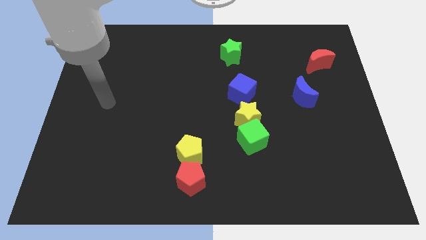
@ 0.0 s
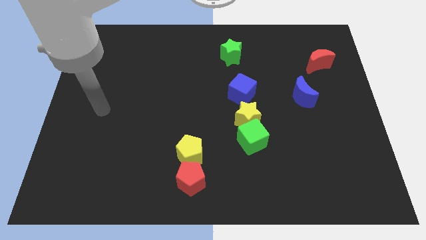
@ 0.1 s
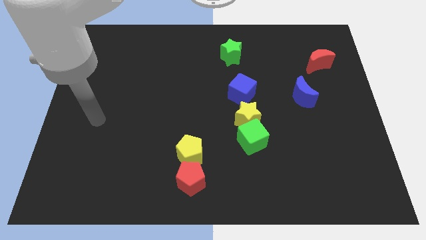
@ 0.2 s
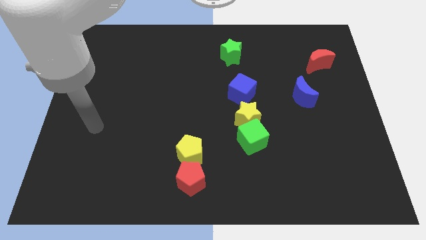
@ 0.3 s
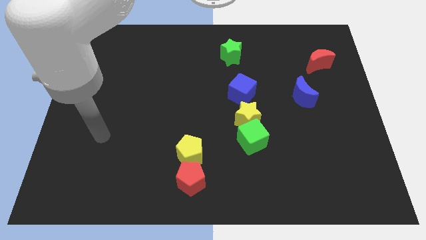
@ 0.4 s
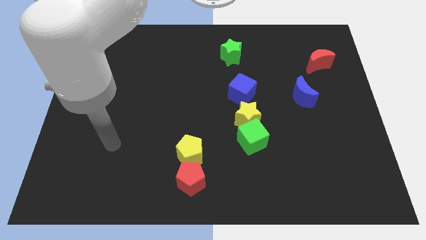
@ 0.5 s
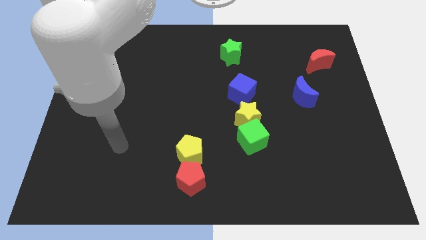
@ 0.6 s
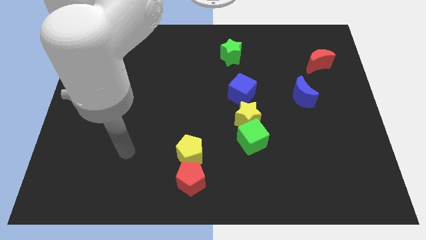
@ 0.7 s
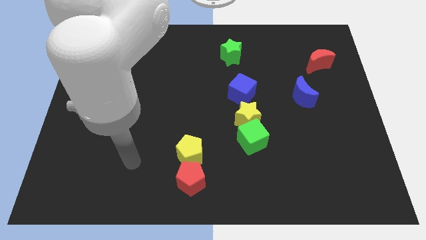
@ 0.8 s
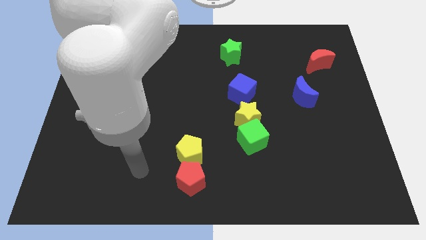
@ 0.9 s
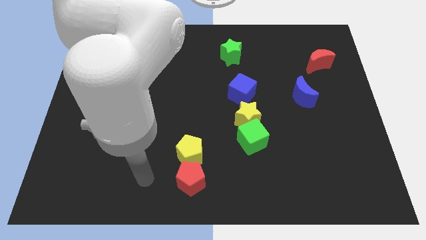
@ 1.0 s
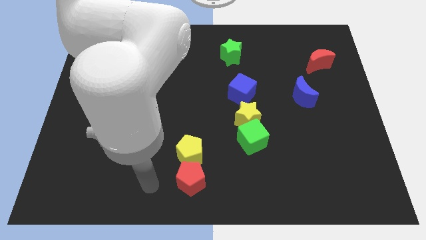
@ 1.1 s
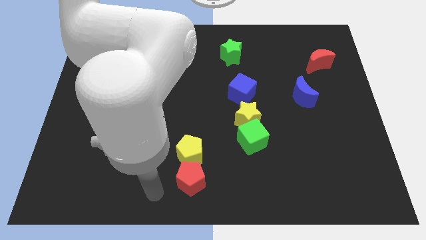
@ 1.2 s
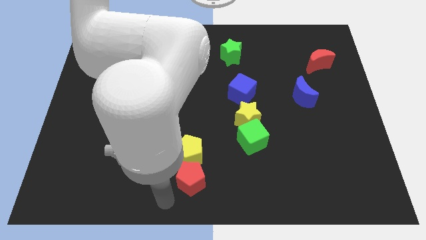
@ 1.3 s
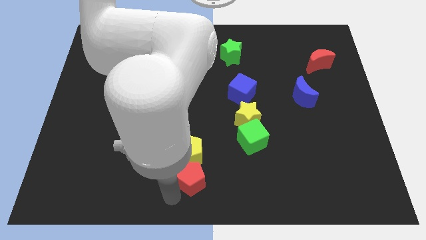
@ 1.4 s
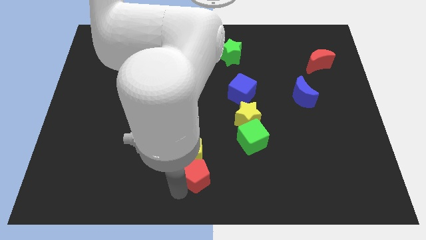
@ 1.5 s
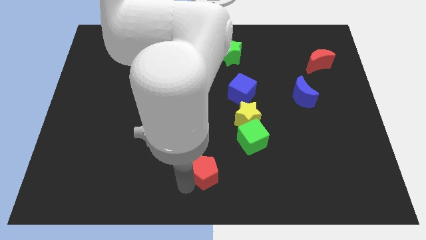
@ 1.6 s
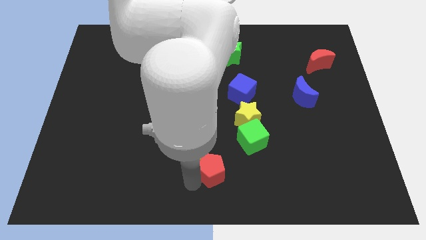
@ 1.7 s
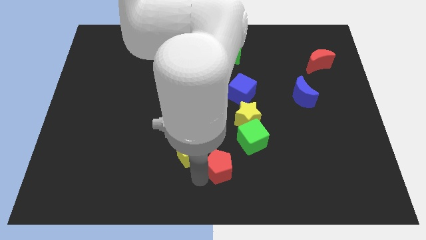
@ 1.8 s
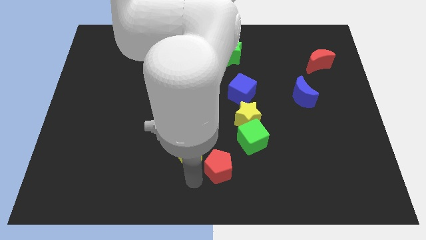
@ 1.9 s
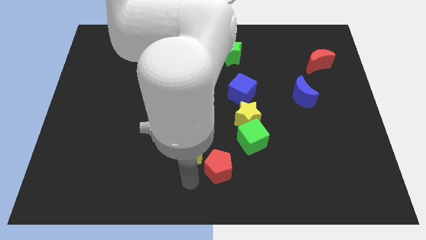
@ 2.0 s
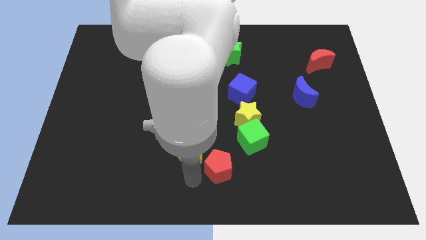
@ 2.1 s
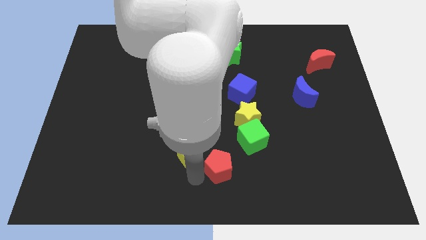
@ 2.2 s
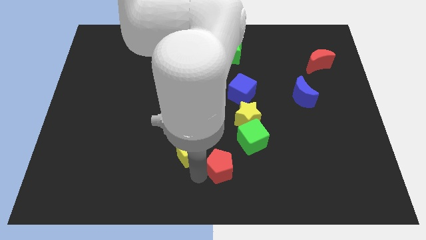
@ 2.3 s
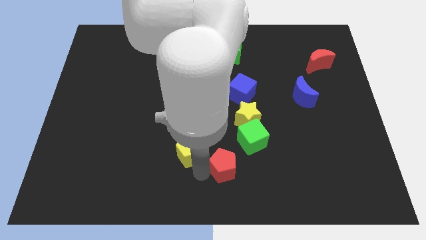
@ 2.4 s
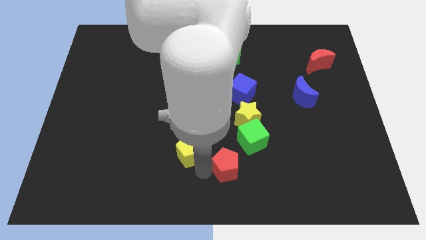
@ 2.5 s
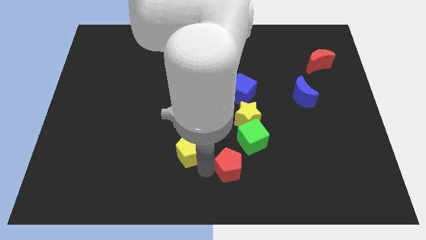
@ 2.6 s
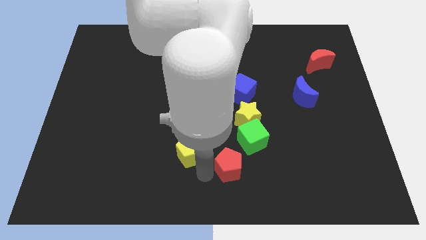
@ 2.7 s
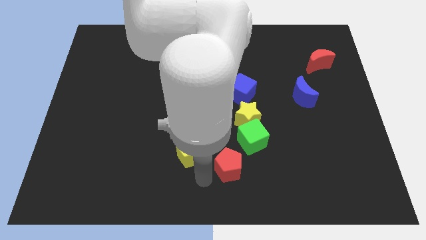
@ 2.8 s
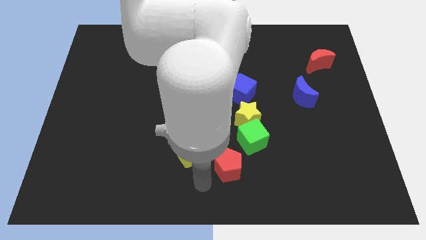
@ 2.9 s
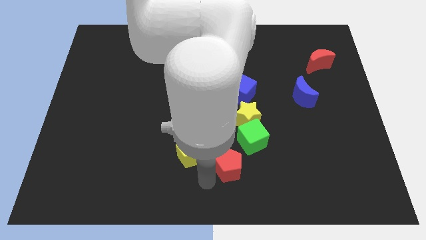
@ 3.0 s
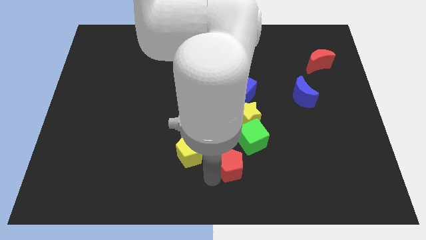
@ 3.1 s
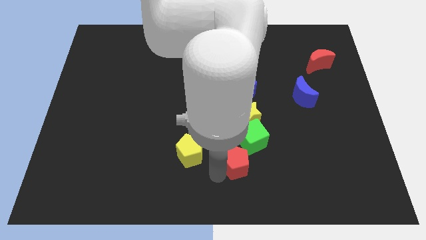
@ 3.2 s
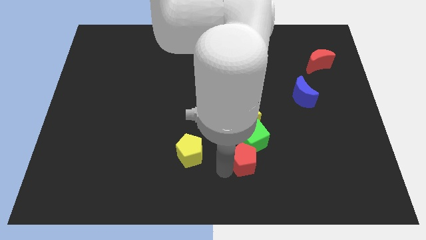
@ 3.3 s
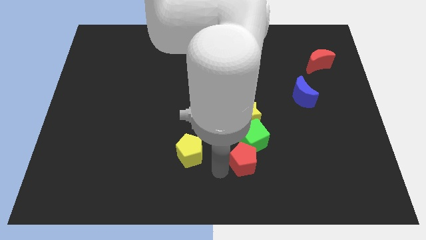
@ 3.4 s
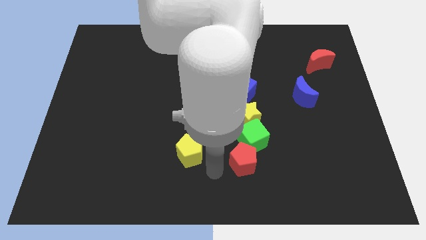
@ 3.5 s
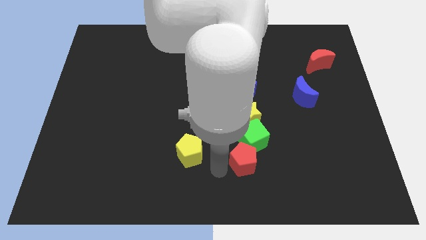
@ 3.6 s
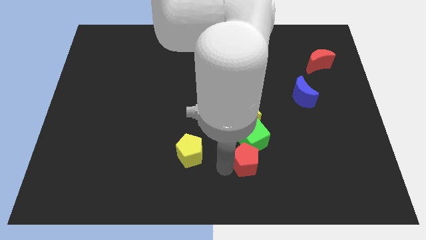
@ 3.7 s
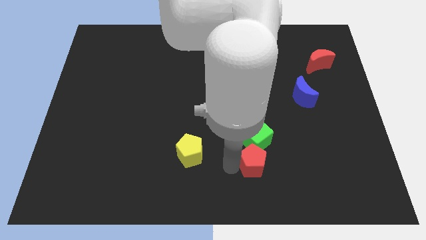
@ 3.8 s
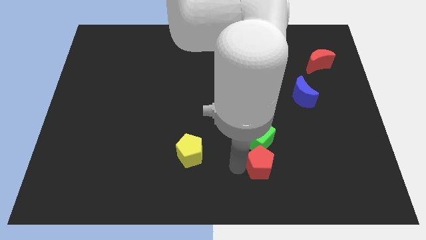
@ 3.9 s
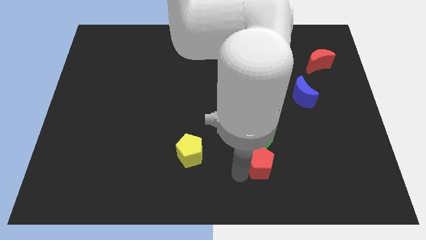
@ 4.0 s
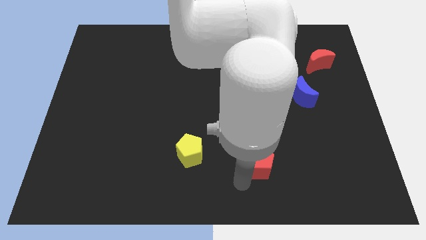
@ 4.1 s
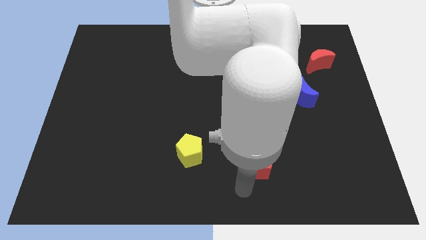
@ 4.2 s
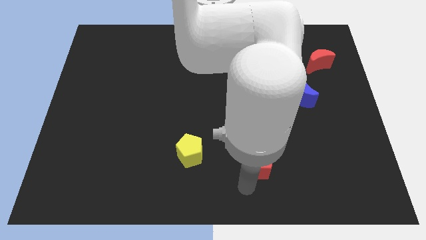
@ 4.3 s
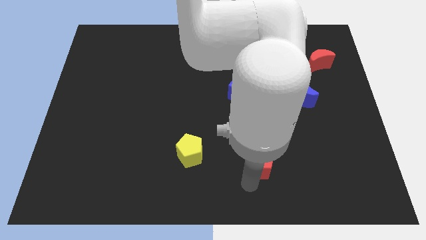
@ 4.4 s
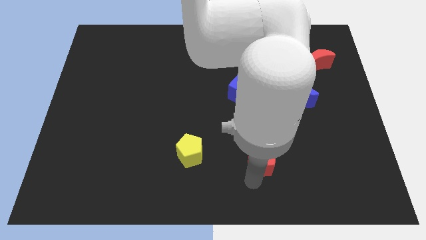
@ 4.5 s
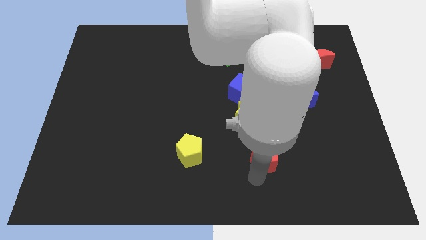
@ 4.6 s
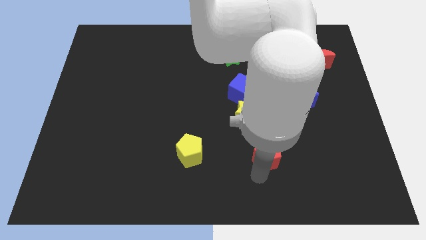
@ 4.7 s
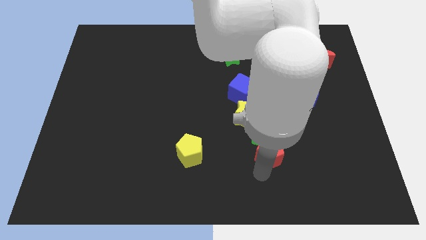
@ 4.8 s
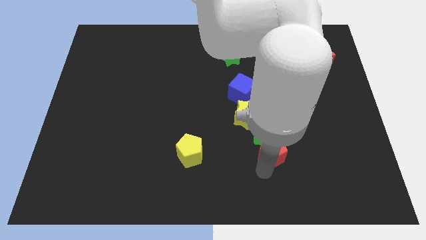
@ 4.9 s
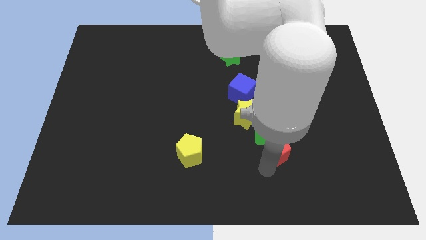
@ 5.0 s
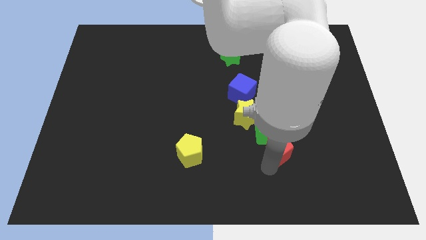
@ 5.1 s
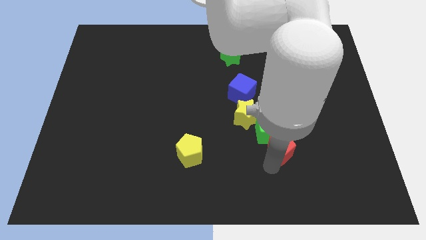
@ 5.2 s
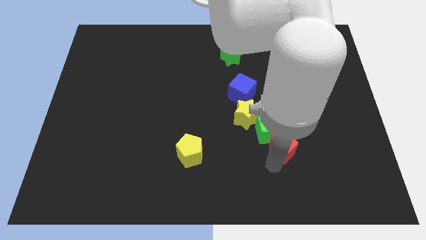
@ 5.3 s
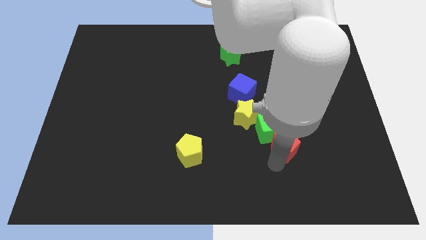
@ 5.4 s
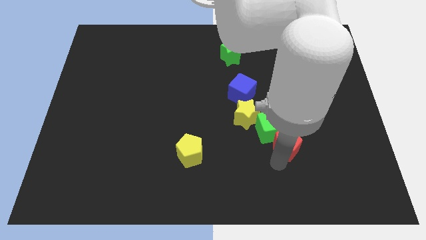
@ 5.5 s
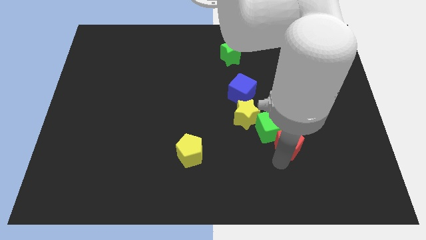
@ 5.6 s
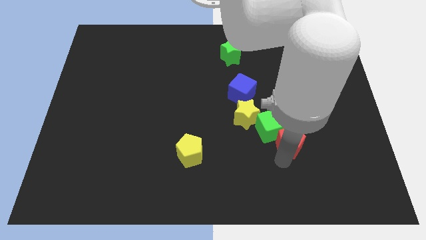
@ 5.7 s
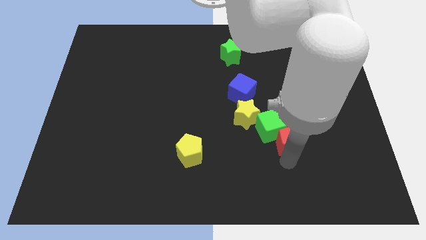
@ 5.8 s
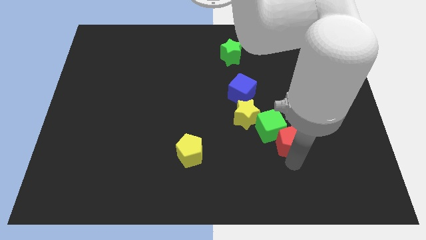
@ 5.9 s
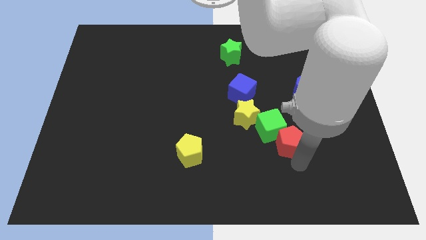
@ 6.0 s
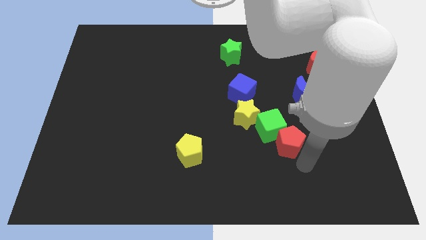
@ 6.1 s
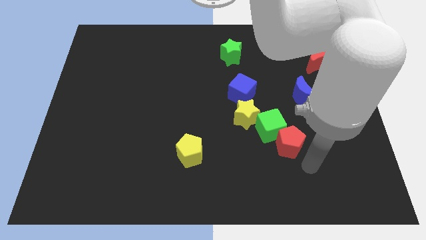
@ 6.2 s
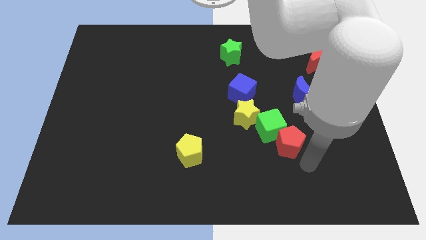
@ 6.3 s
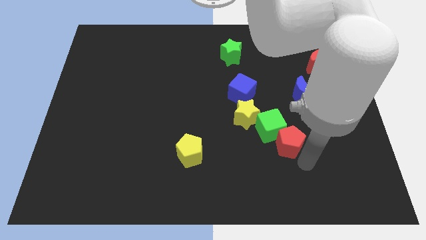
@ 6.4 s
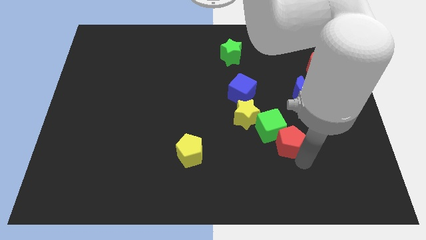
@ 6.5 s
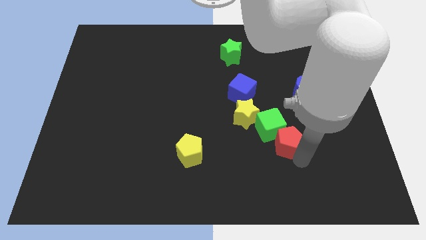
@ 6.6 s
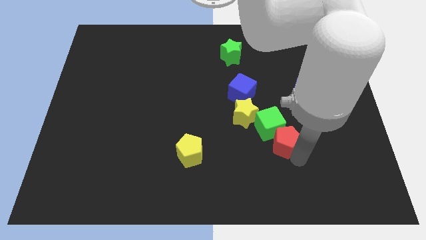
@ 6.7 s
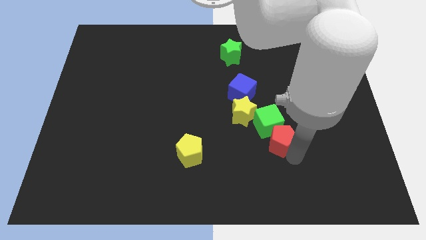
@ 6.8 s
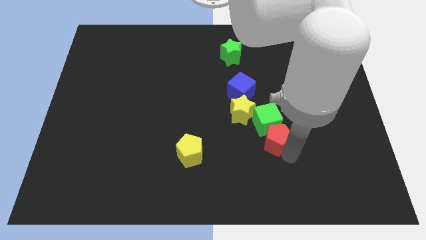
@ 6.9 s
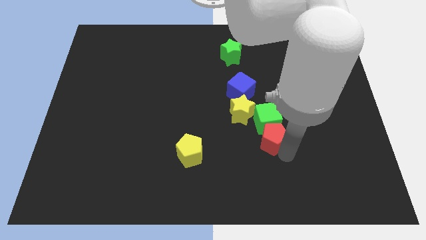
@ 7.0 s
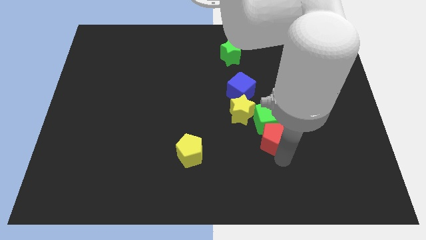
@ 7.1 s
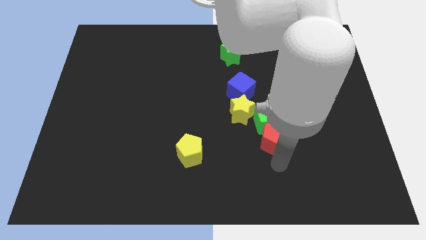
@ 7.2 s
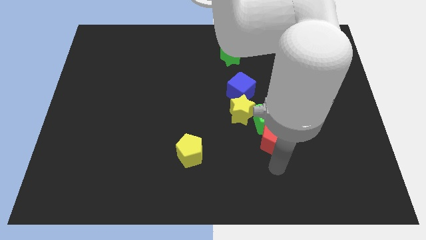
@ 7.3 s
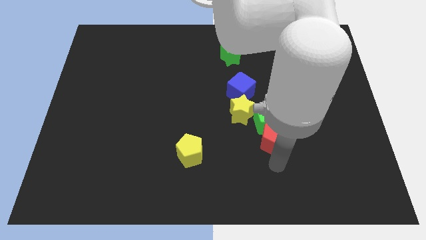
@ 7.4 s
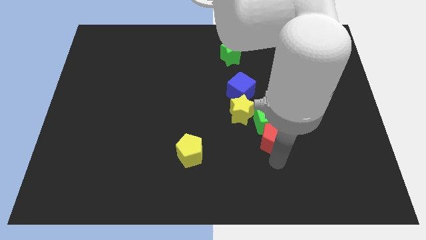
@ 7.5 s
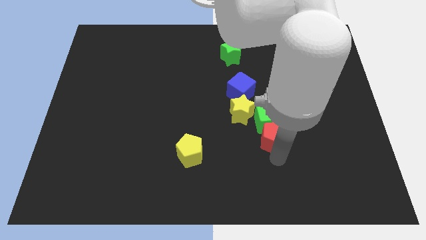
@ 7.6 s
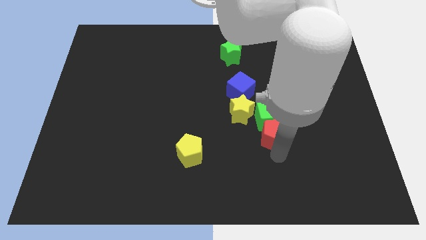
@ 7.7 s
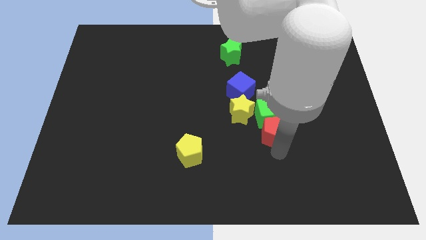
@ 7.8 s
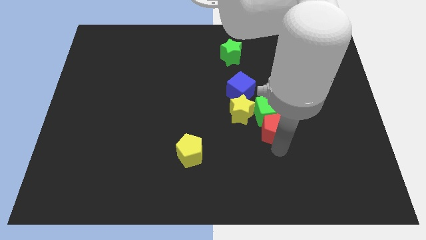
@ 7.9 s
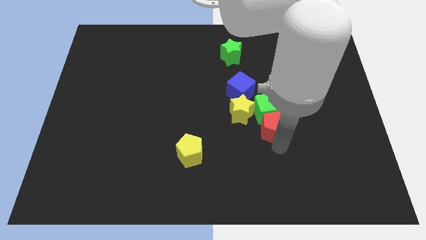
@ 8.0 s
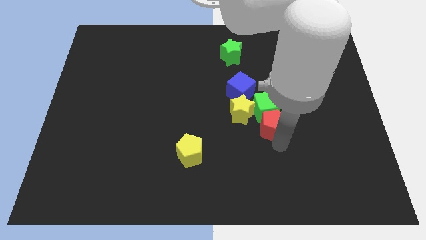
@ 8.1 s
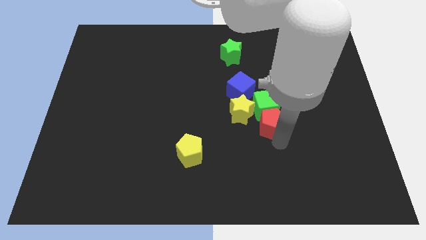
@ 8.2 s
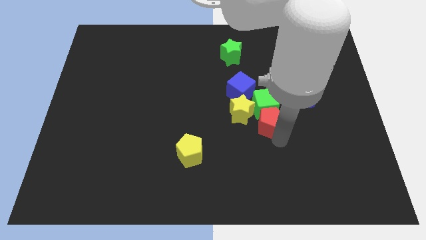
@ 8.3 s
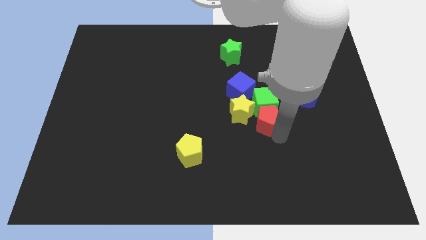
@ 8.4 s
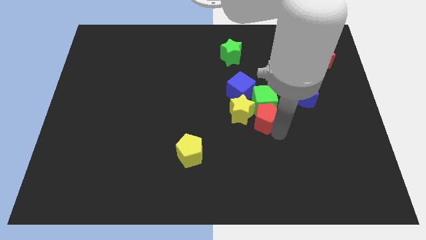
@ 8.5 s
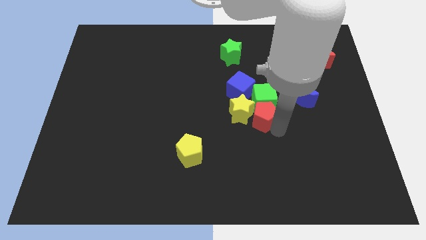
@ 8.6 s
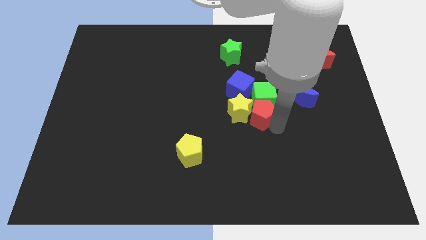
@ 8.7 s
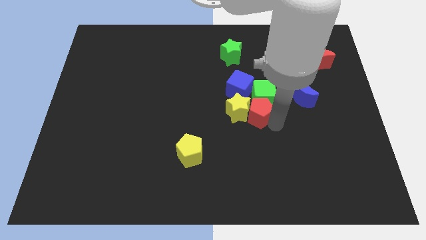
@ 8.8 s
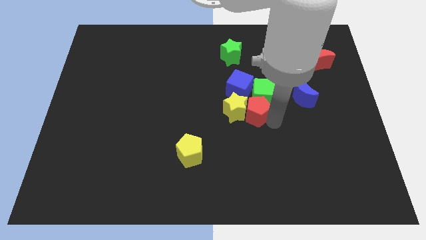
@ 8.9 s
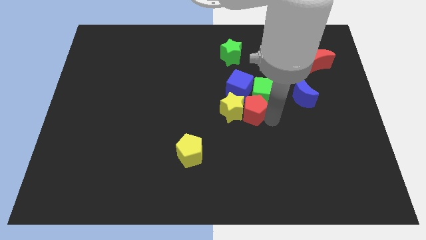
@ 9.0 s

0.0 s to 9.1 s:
slide the red pentagon to the left of the blue moon
